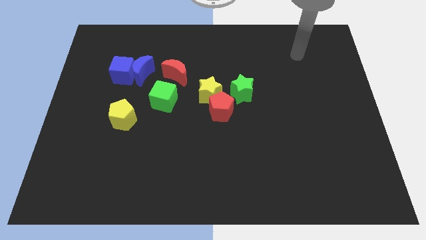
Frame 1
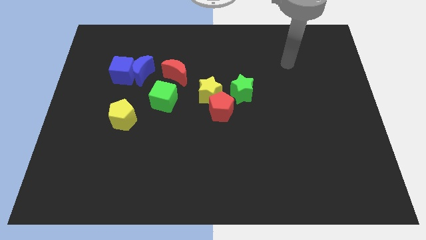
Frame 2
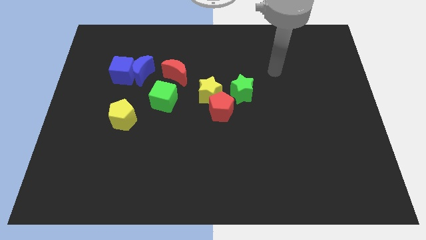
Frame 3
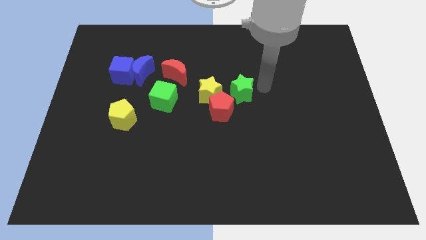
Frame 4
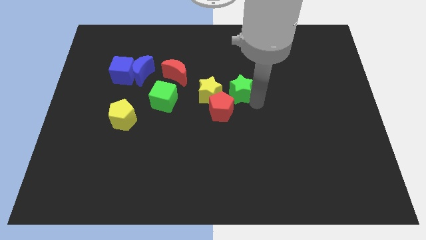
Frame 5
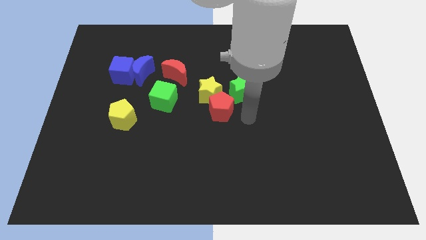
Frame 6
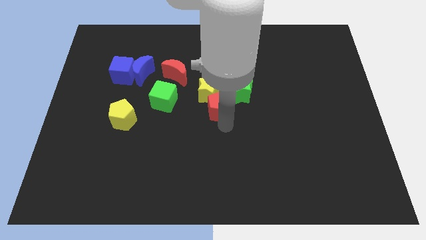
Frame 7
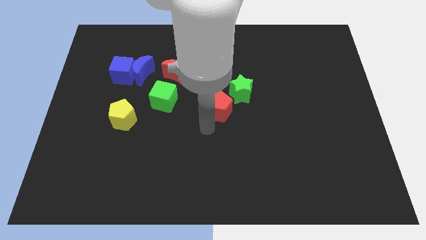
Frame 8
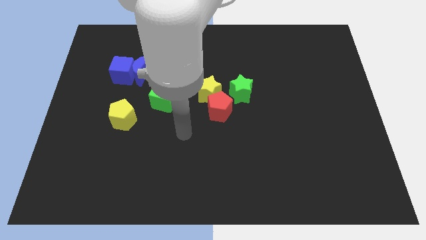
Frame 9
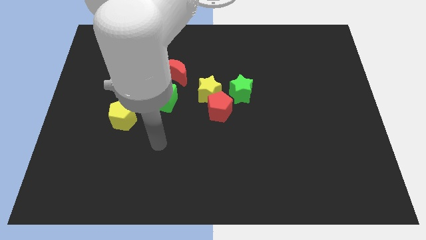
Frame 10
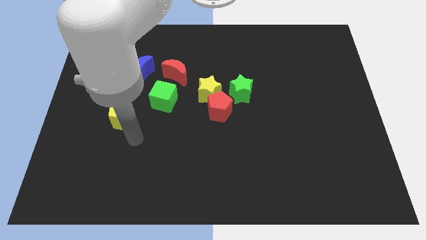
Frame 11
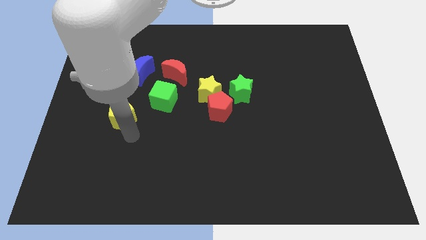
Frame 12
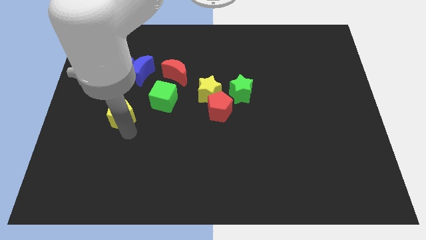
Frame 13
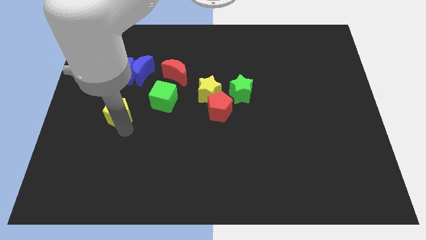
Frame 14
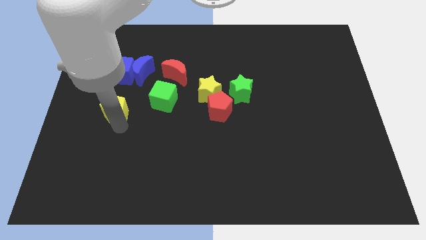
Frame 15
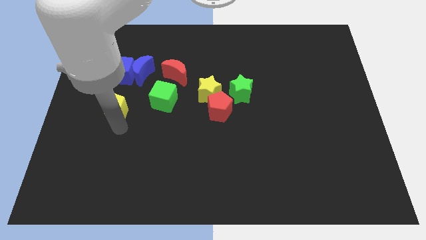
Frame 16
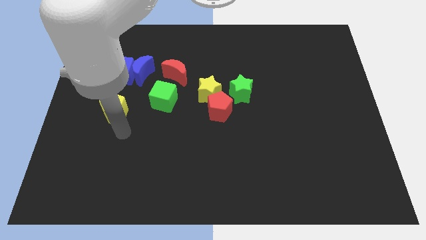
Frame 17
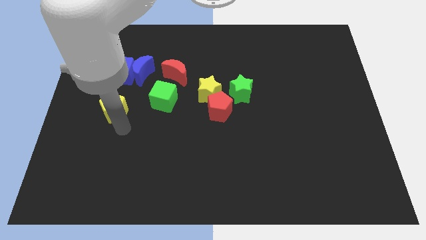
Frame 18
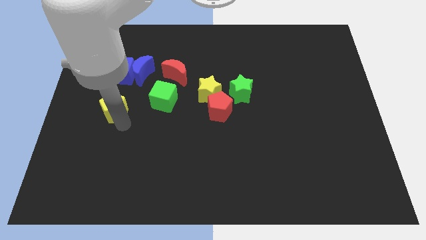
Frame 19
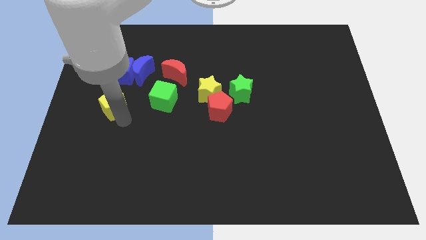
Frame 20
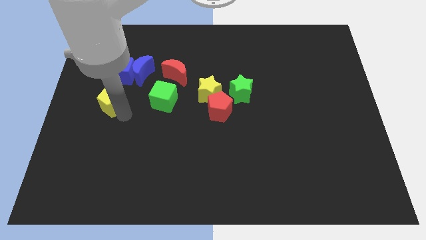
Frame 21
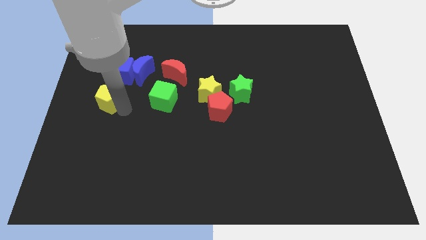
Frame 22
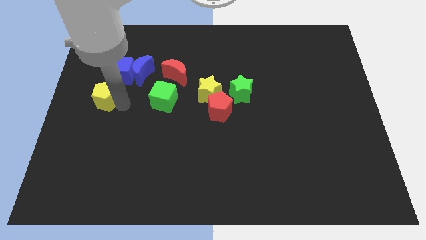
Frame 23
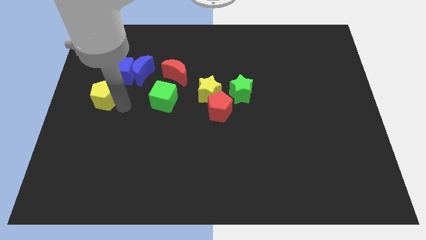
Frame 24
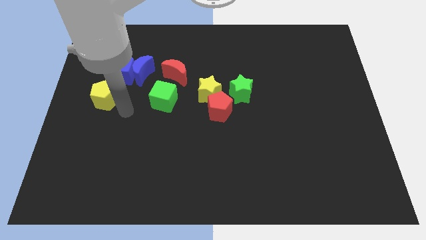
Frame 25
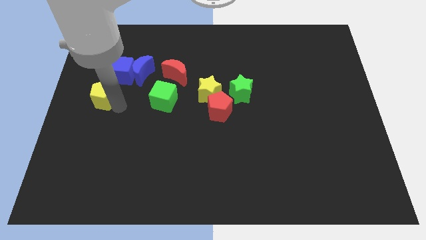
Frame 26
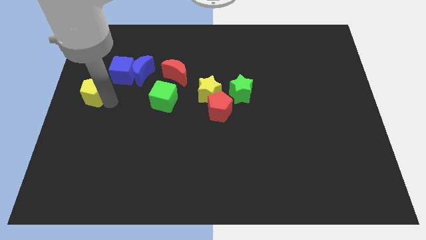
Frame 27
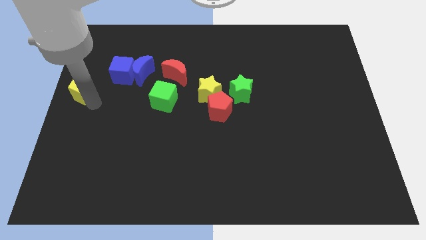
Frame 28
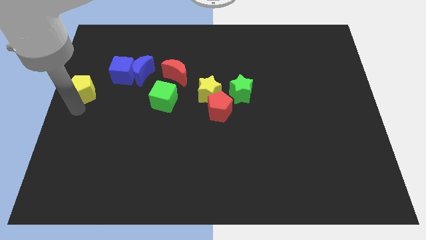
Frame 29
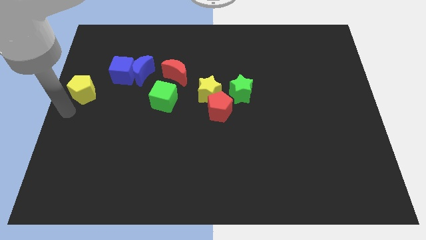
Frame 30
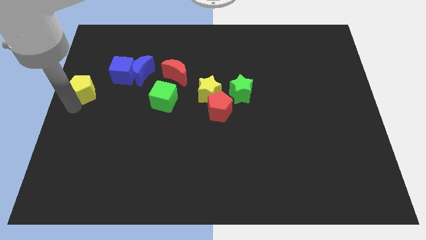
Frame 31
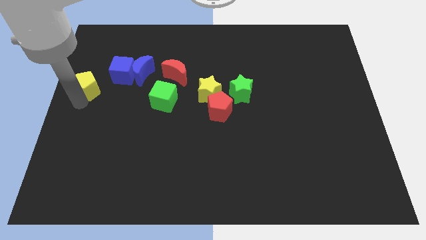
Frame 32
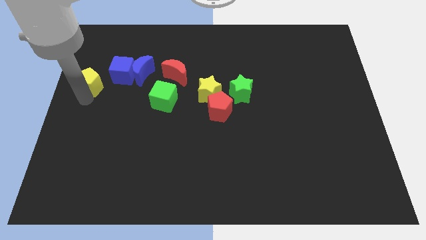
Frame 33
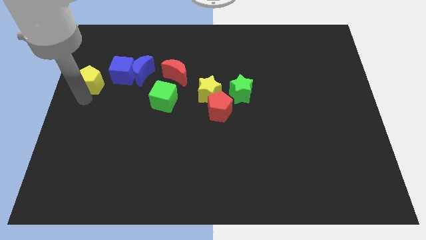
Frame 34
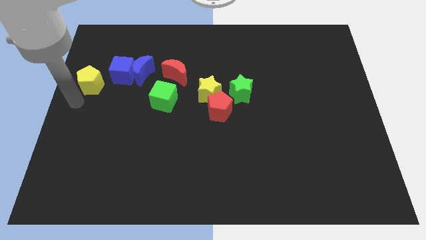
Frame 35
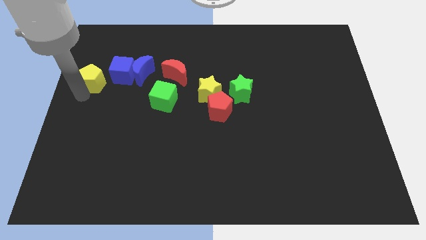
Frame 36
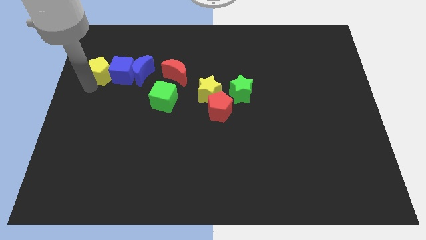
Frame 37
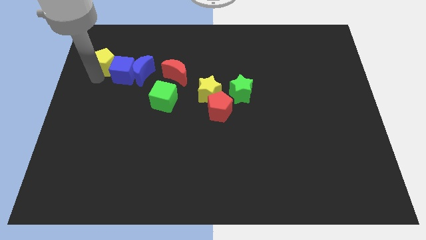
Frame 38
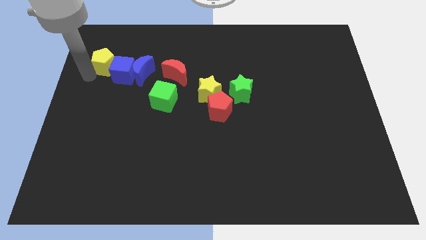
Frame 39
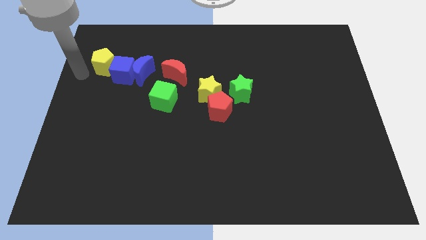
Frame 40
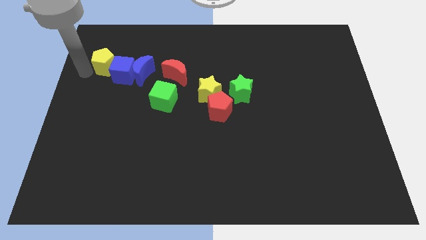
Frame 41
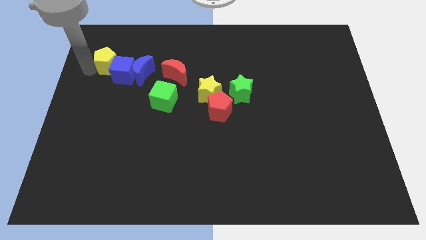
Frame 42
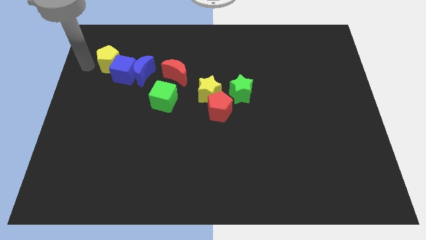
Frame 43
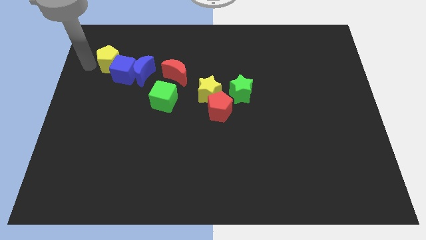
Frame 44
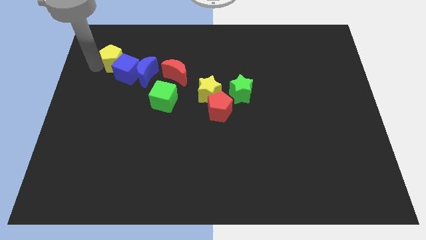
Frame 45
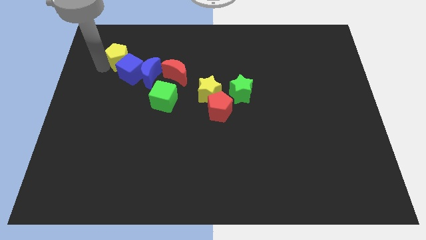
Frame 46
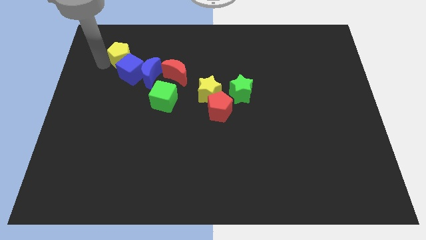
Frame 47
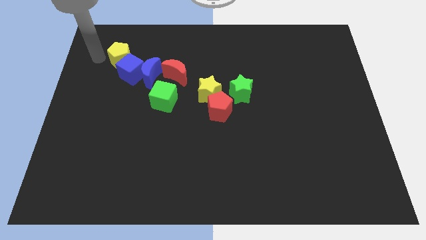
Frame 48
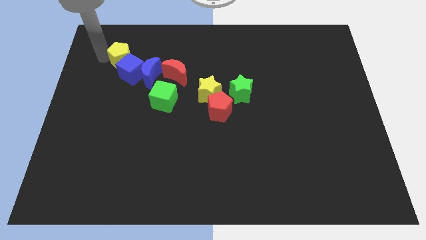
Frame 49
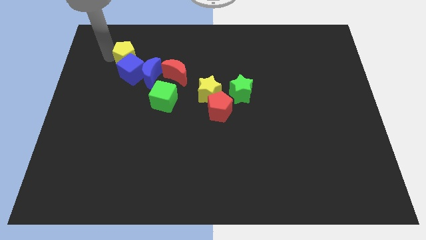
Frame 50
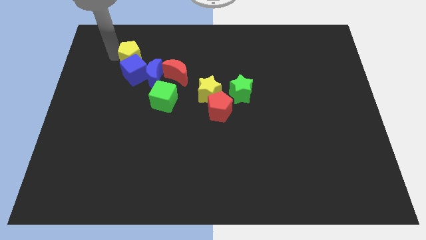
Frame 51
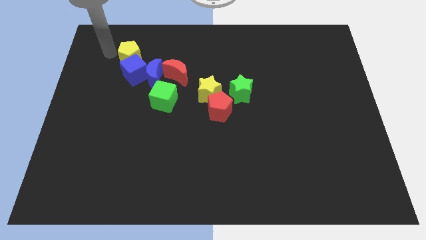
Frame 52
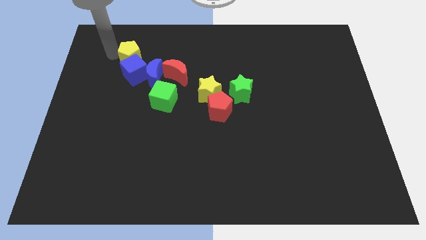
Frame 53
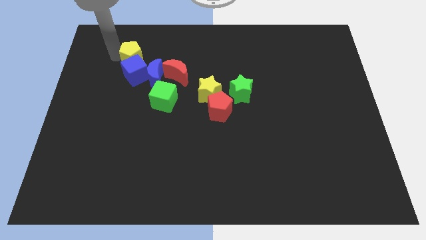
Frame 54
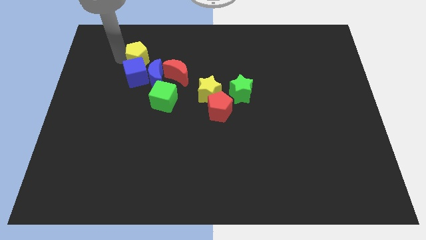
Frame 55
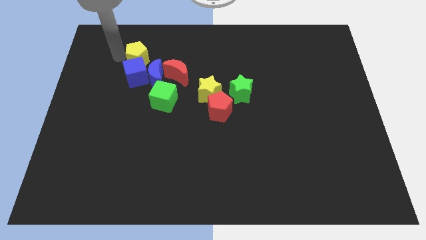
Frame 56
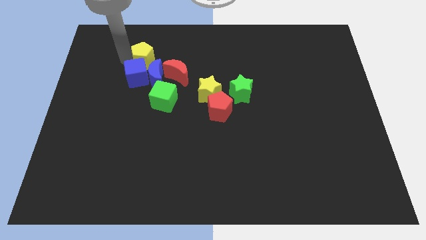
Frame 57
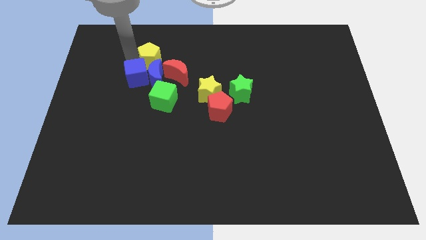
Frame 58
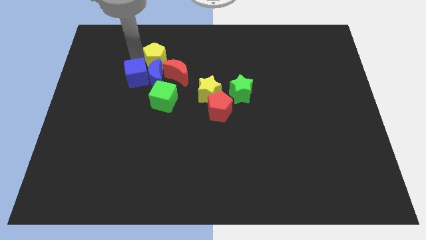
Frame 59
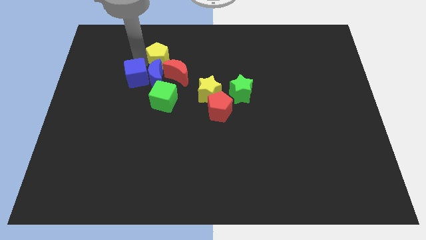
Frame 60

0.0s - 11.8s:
move the yellow pentagon to the top right of the blue moon

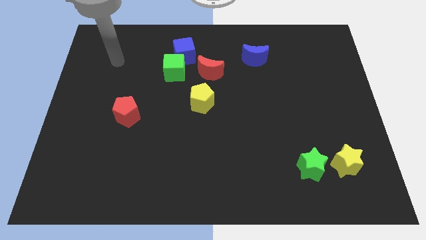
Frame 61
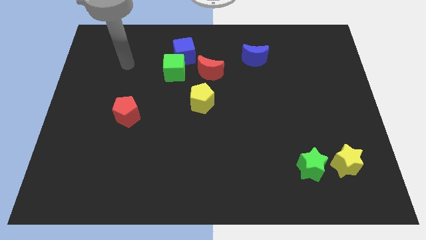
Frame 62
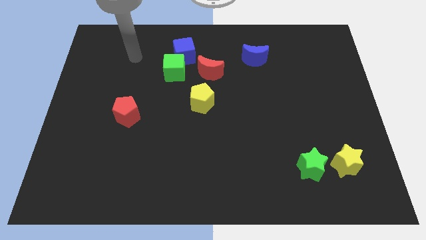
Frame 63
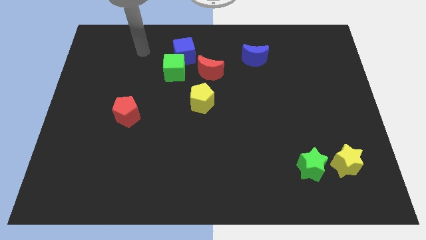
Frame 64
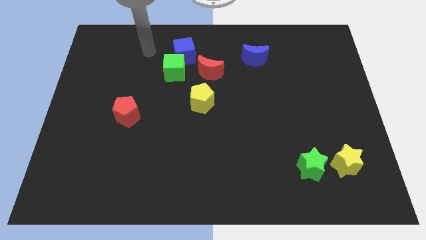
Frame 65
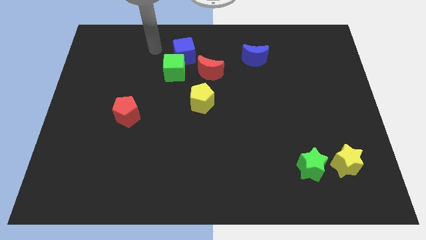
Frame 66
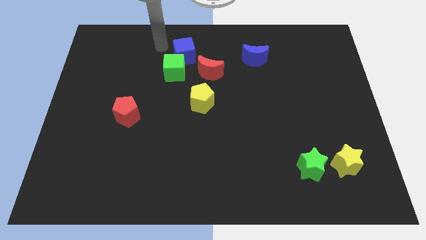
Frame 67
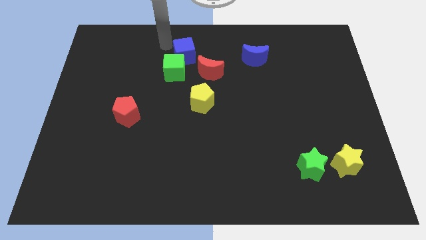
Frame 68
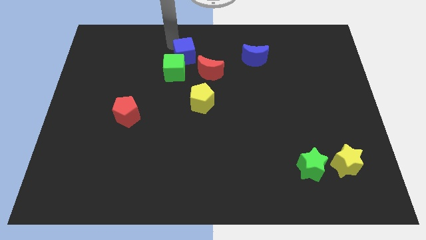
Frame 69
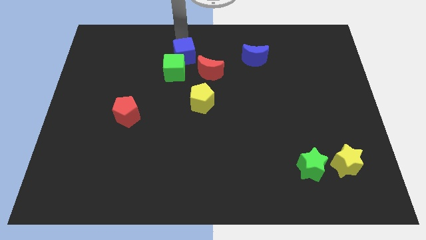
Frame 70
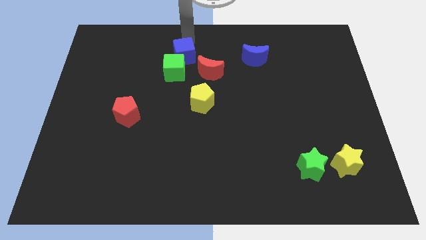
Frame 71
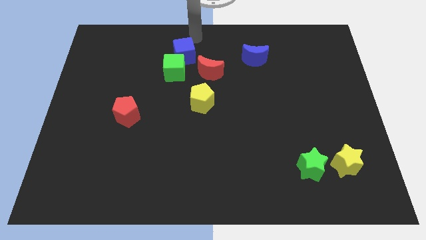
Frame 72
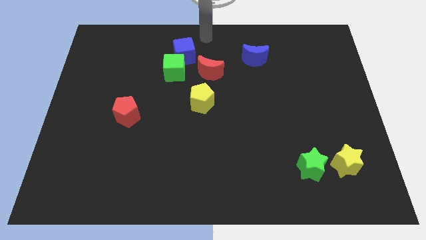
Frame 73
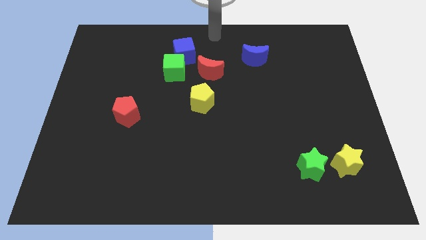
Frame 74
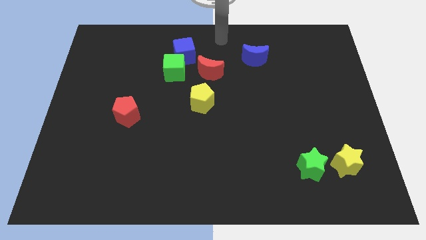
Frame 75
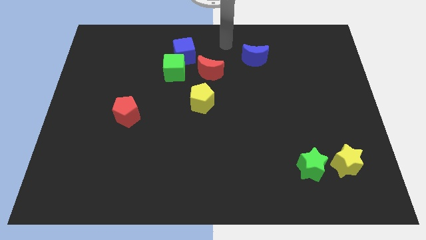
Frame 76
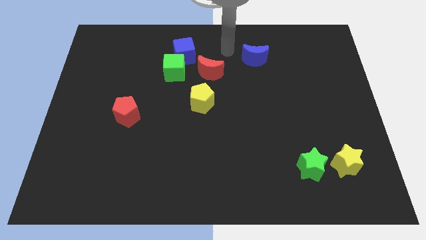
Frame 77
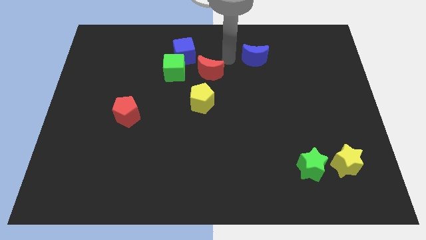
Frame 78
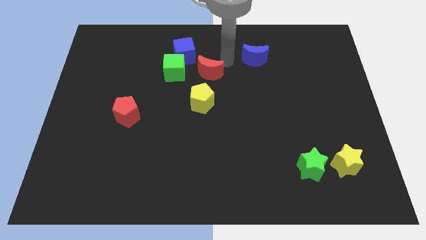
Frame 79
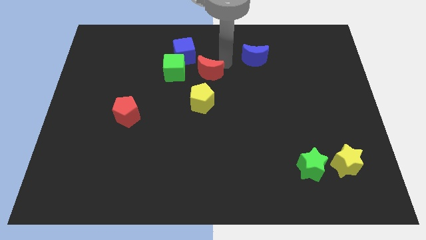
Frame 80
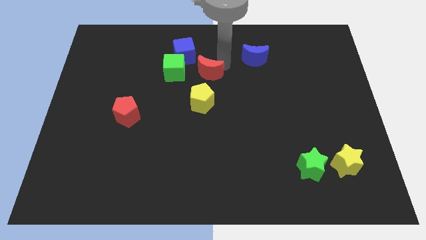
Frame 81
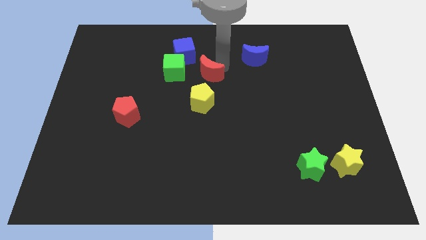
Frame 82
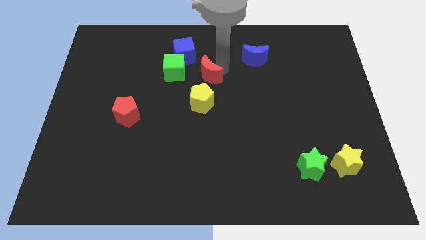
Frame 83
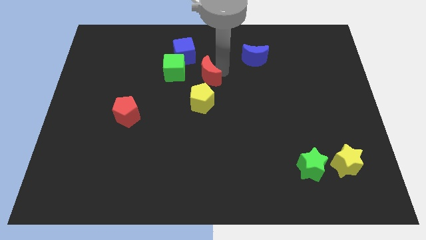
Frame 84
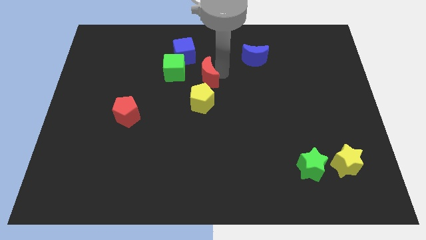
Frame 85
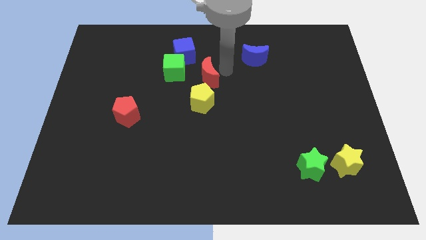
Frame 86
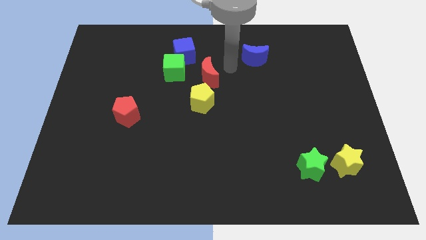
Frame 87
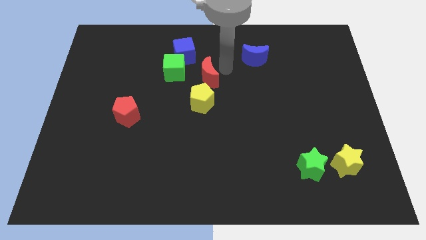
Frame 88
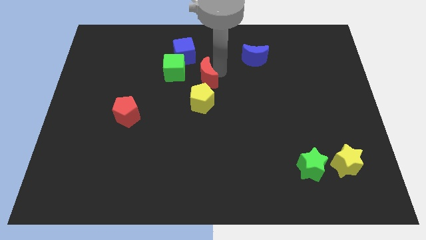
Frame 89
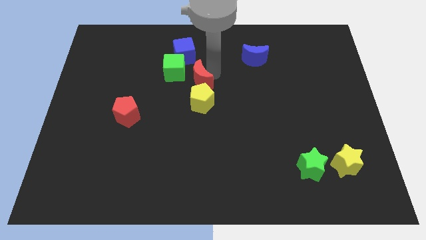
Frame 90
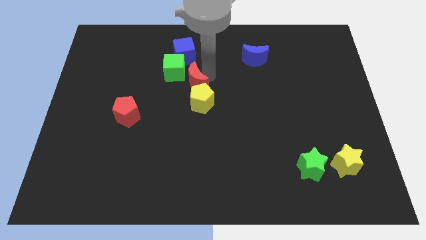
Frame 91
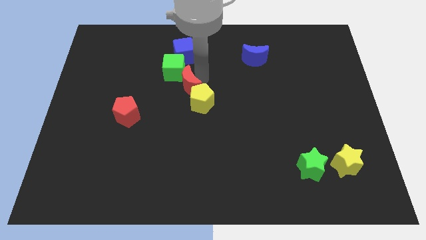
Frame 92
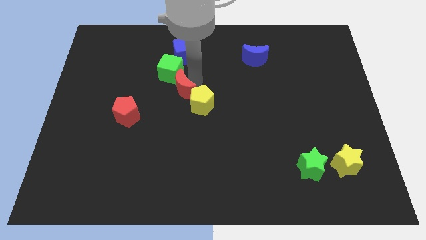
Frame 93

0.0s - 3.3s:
put the red moon left of the yellow pentagon
